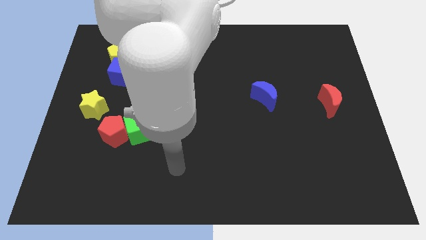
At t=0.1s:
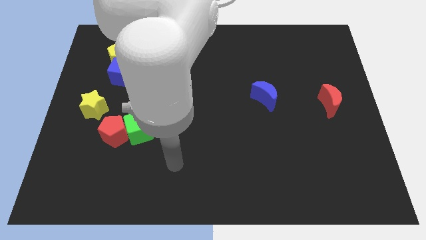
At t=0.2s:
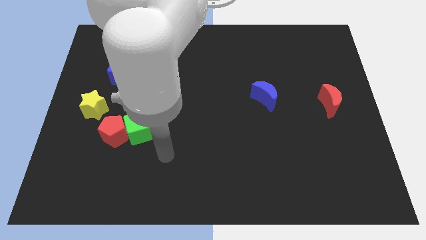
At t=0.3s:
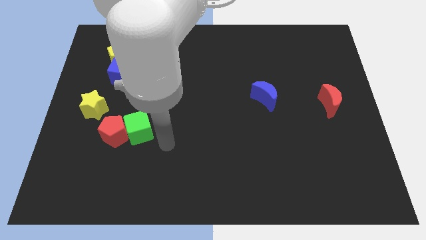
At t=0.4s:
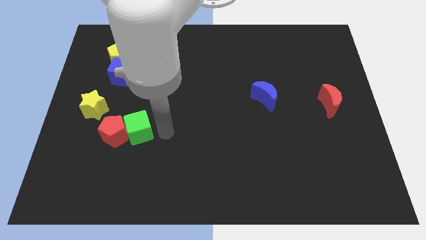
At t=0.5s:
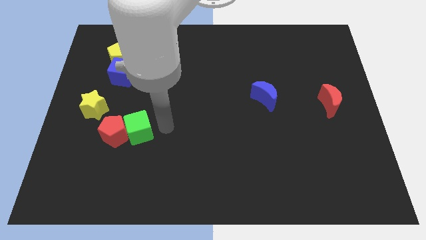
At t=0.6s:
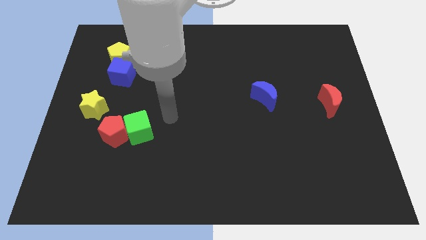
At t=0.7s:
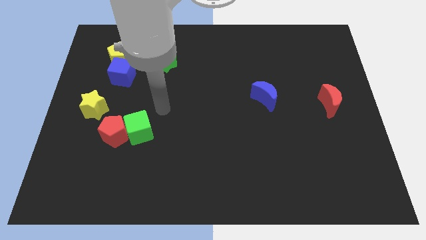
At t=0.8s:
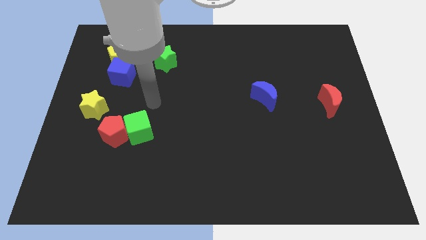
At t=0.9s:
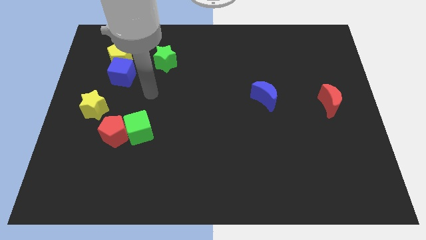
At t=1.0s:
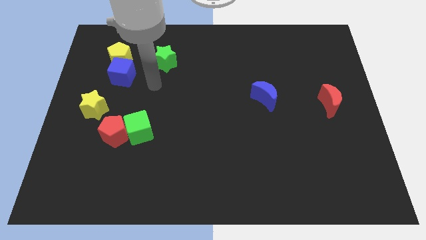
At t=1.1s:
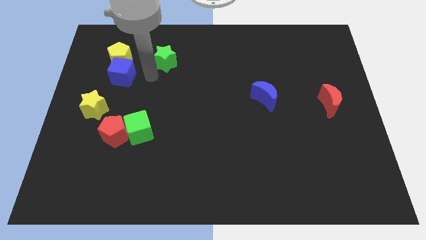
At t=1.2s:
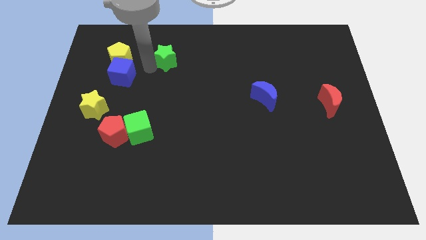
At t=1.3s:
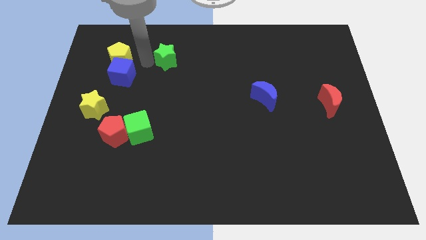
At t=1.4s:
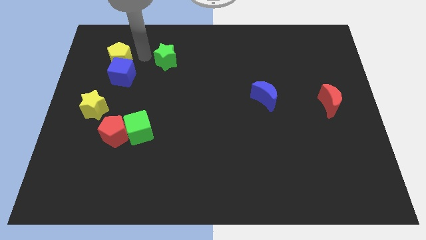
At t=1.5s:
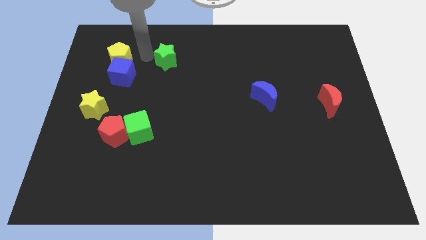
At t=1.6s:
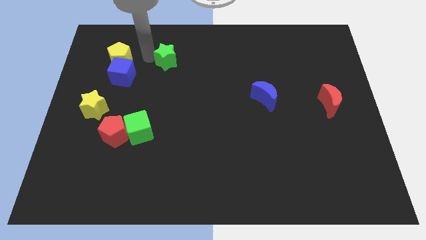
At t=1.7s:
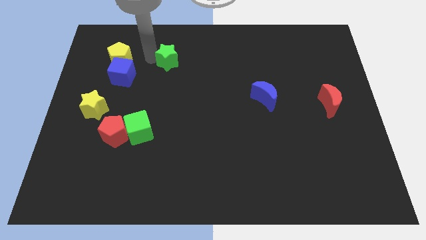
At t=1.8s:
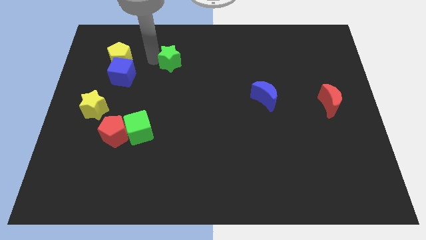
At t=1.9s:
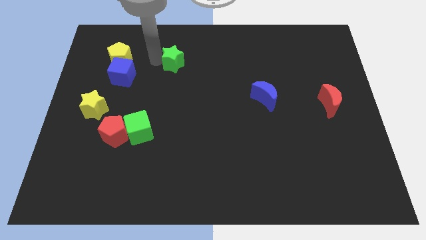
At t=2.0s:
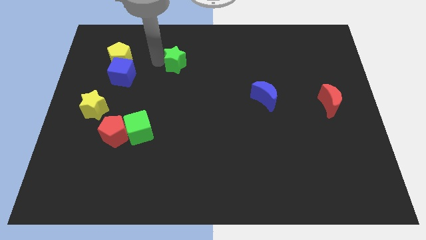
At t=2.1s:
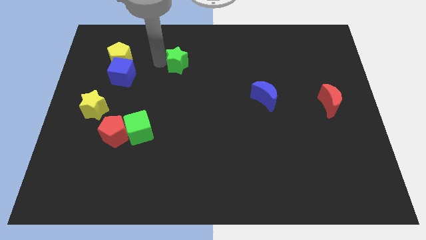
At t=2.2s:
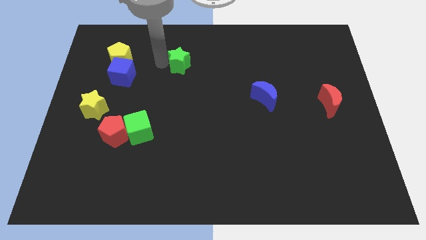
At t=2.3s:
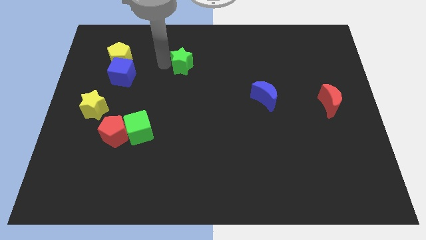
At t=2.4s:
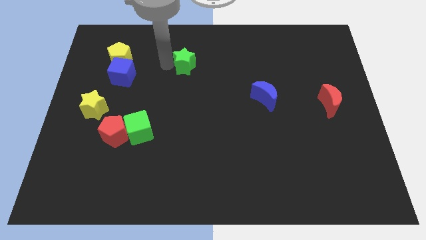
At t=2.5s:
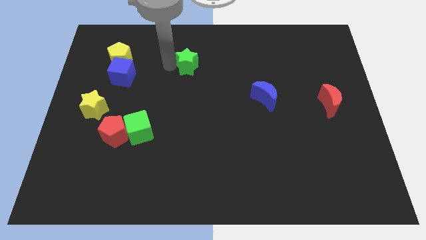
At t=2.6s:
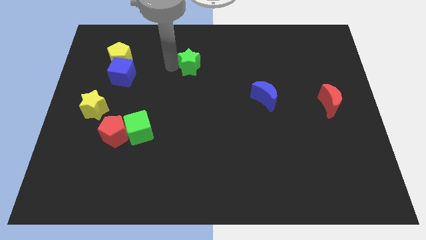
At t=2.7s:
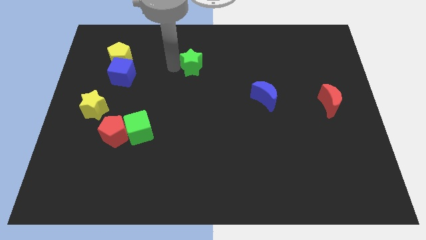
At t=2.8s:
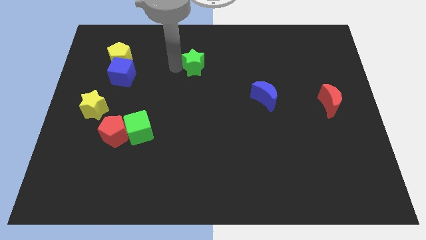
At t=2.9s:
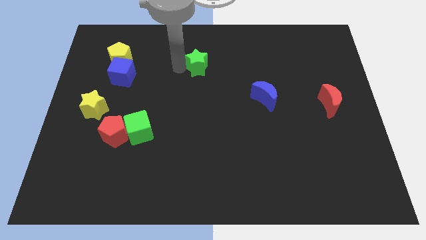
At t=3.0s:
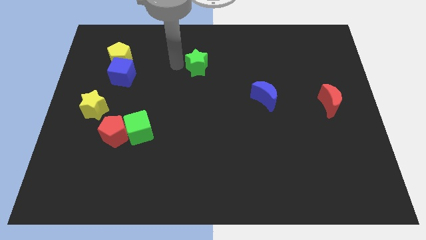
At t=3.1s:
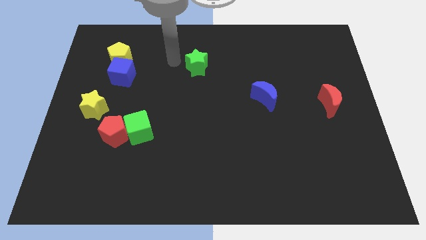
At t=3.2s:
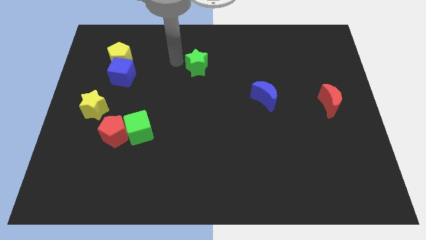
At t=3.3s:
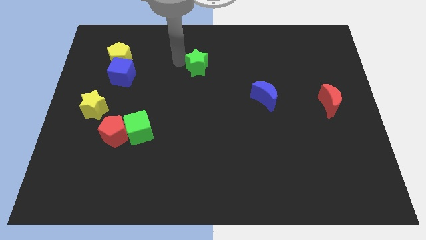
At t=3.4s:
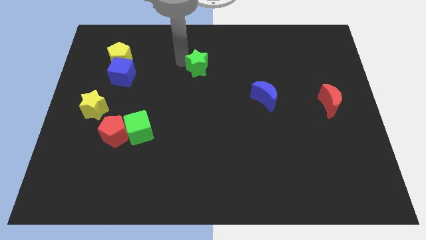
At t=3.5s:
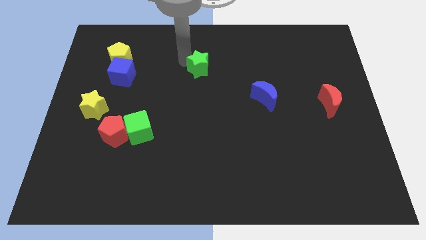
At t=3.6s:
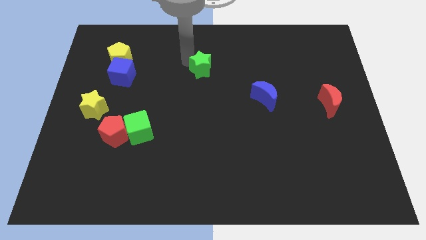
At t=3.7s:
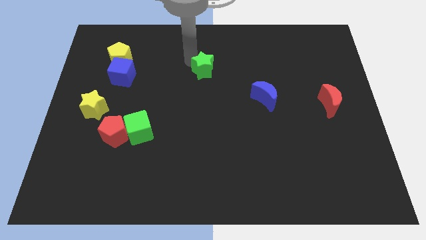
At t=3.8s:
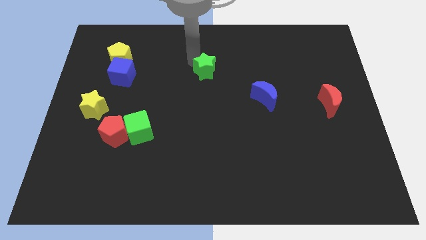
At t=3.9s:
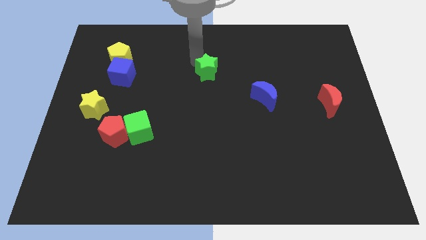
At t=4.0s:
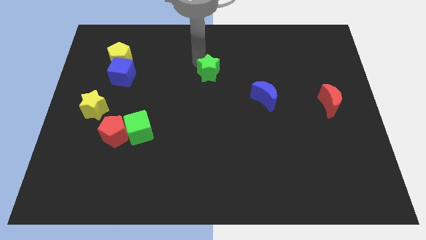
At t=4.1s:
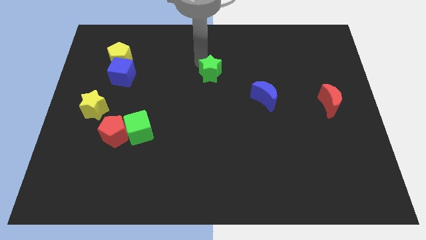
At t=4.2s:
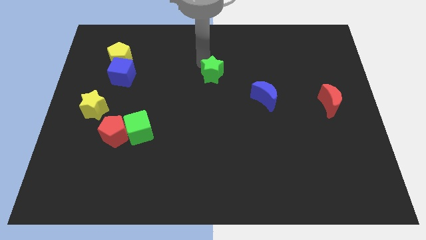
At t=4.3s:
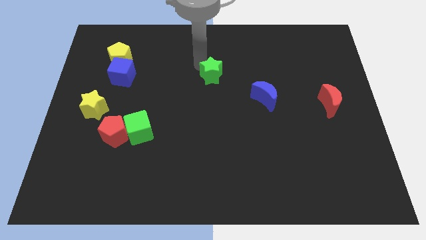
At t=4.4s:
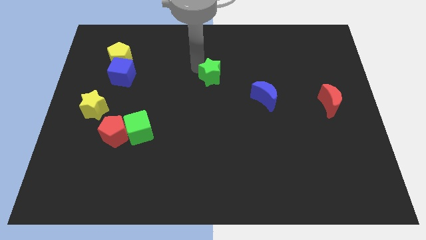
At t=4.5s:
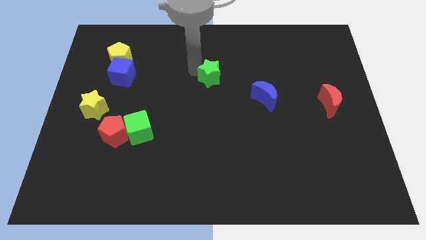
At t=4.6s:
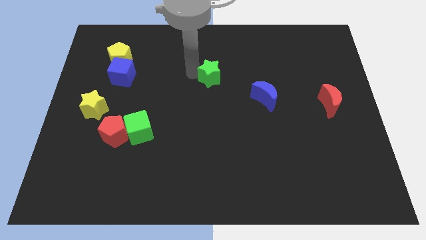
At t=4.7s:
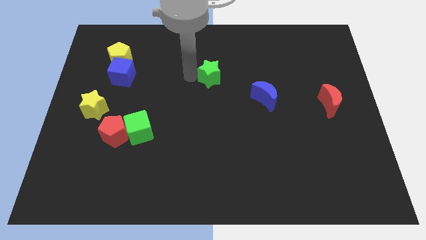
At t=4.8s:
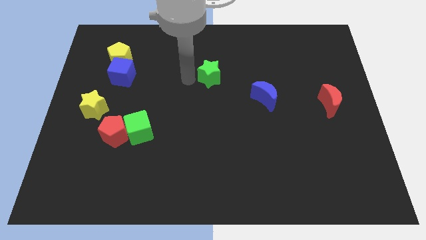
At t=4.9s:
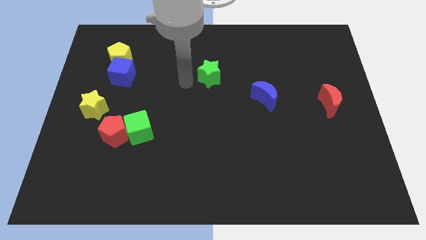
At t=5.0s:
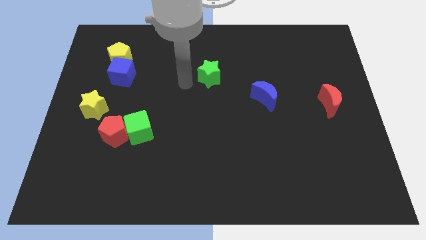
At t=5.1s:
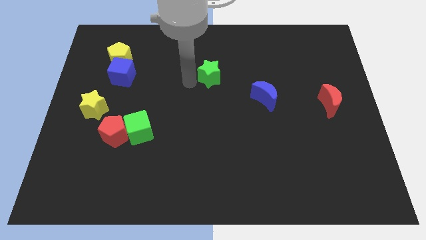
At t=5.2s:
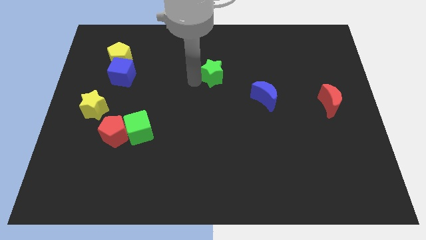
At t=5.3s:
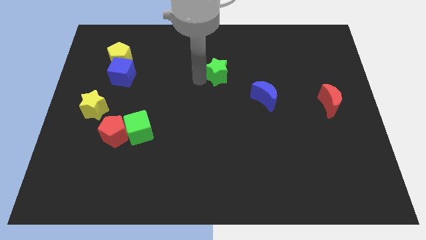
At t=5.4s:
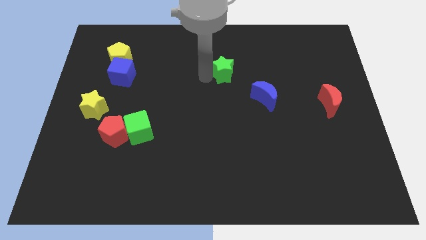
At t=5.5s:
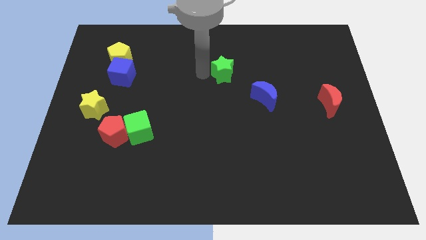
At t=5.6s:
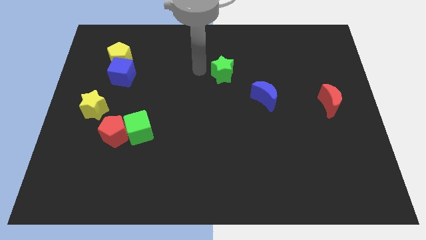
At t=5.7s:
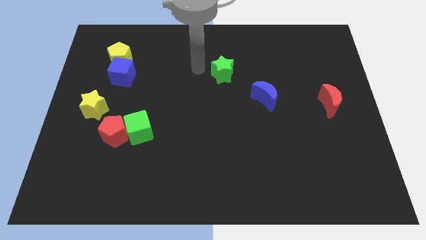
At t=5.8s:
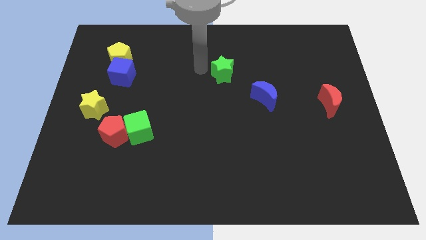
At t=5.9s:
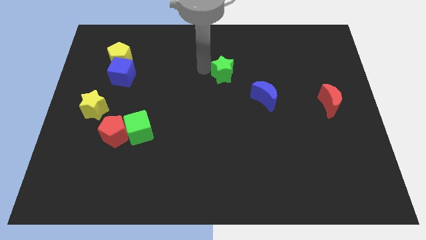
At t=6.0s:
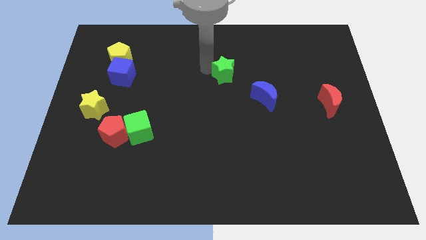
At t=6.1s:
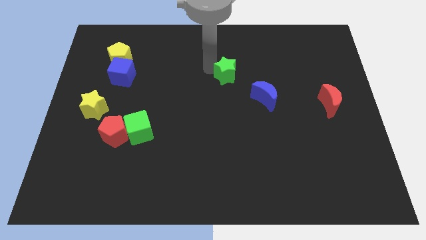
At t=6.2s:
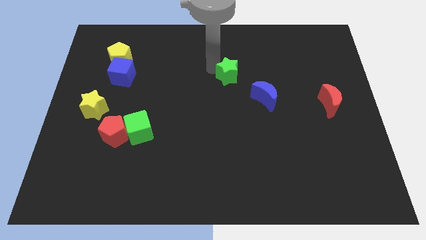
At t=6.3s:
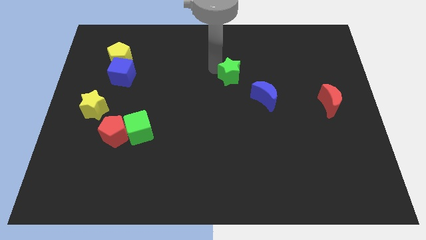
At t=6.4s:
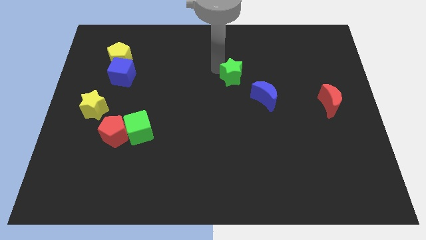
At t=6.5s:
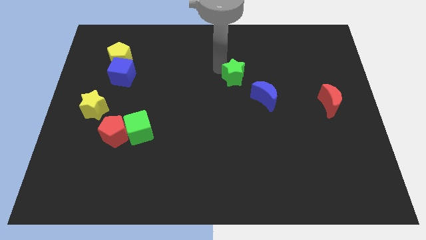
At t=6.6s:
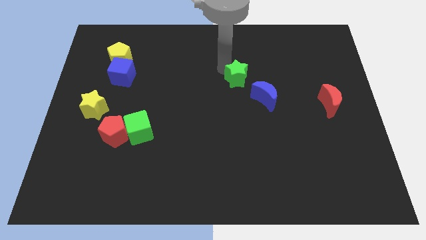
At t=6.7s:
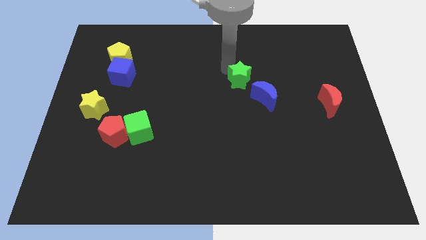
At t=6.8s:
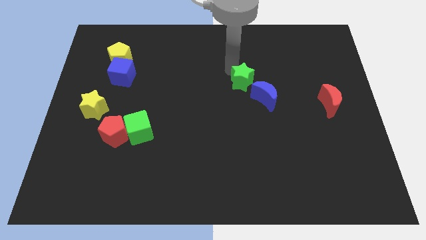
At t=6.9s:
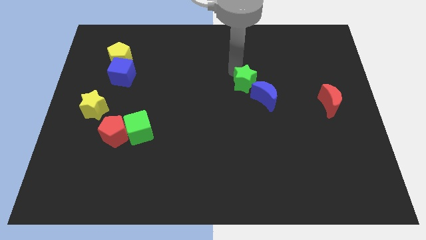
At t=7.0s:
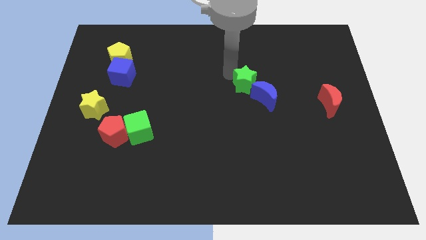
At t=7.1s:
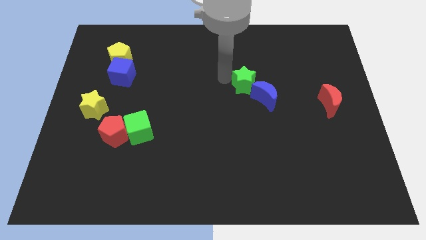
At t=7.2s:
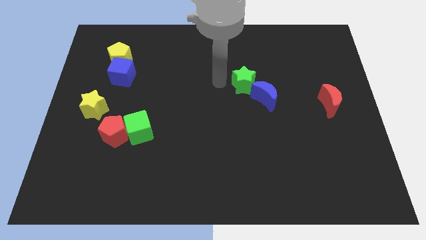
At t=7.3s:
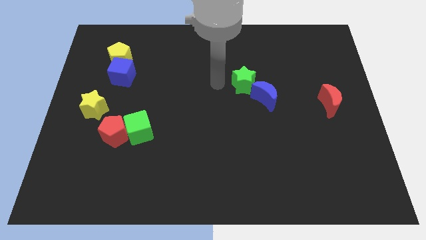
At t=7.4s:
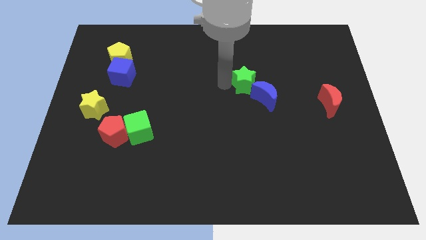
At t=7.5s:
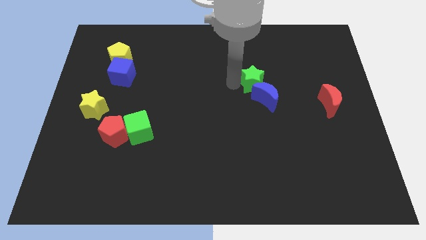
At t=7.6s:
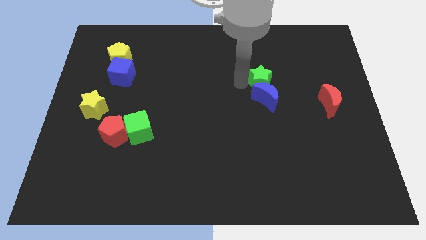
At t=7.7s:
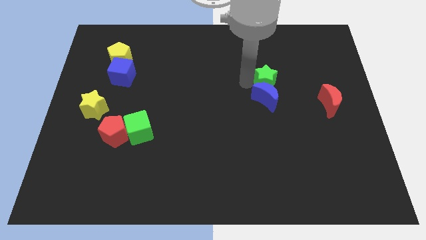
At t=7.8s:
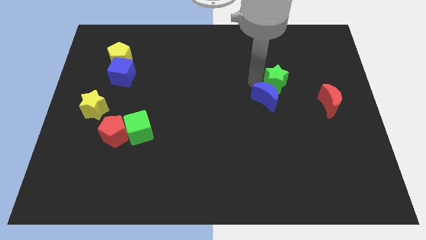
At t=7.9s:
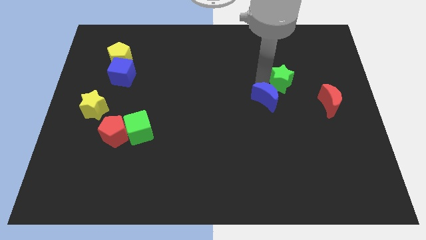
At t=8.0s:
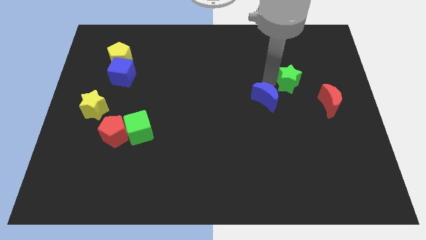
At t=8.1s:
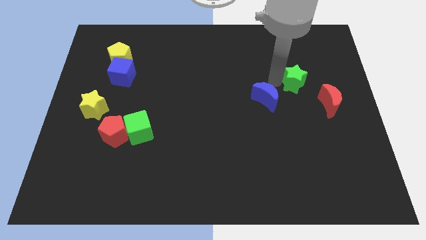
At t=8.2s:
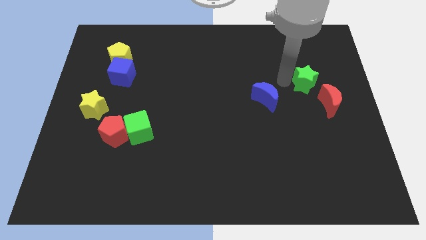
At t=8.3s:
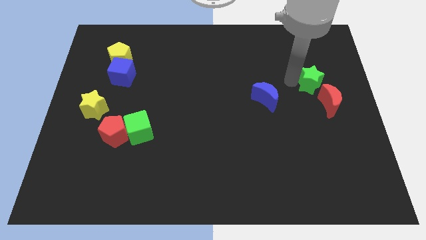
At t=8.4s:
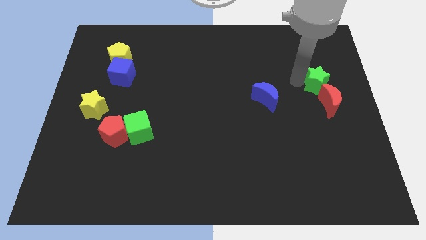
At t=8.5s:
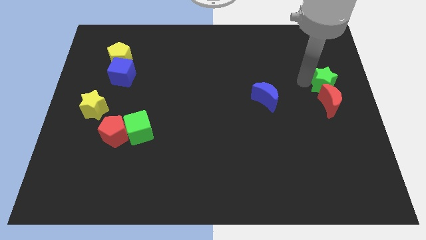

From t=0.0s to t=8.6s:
push the green star to the center right
